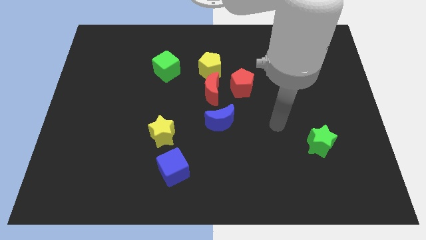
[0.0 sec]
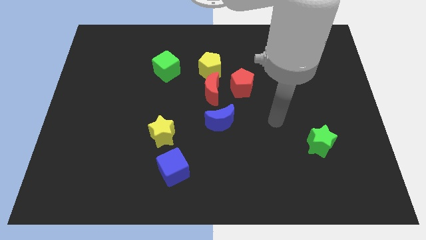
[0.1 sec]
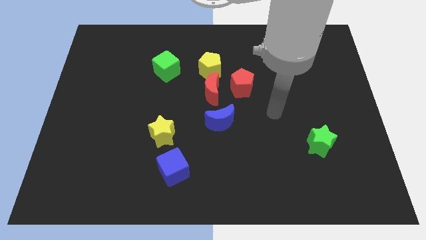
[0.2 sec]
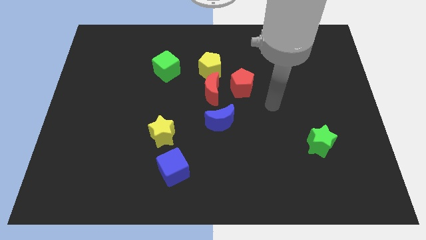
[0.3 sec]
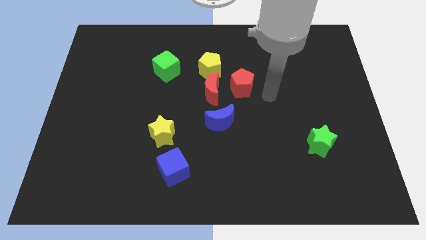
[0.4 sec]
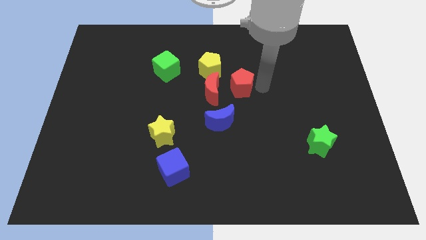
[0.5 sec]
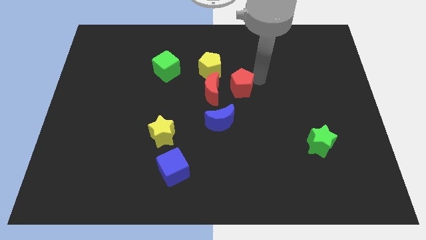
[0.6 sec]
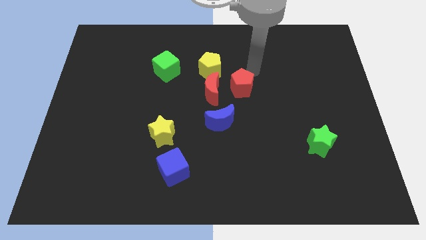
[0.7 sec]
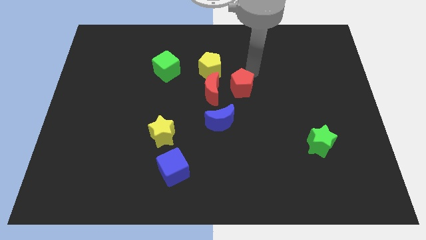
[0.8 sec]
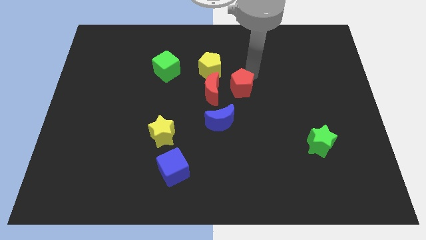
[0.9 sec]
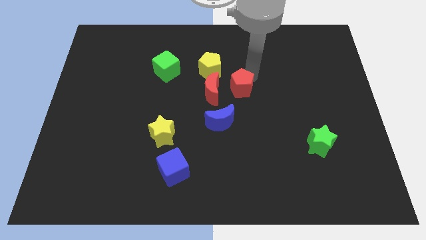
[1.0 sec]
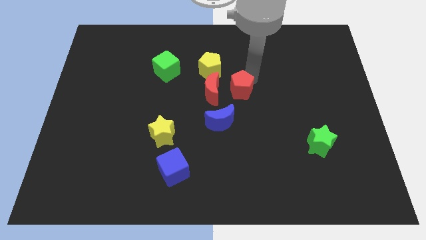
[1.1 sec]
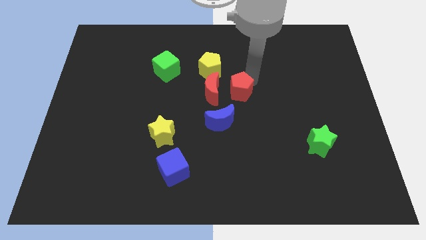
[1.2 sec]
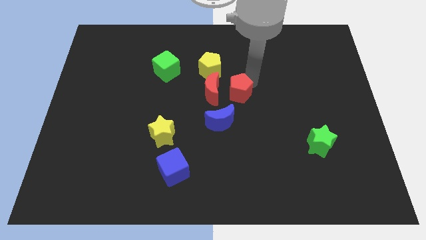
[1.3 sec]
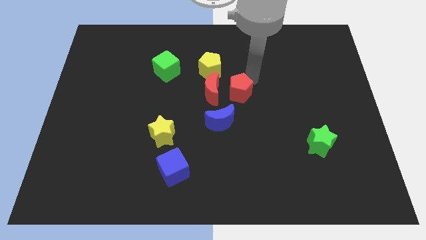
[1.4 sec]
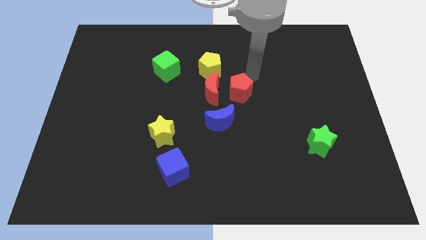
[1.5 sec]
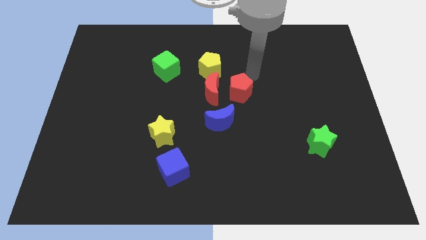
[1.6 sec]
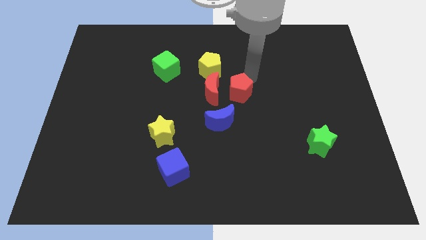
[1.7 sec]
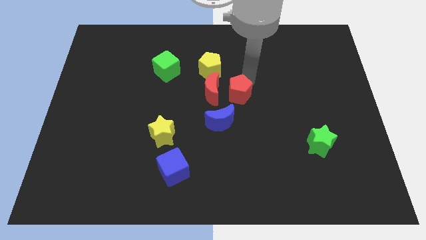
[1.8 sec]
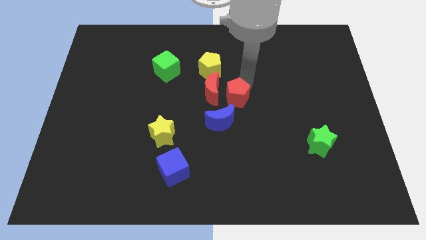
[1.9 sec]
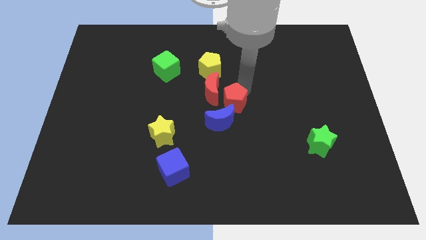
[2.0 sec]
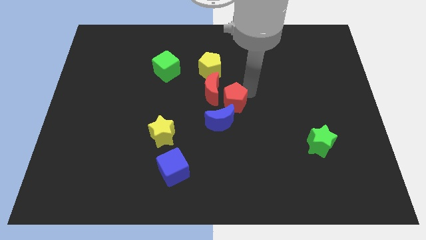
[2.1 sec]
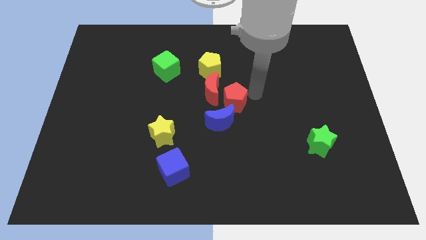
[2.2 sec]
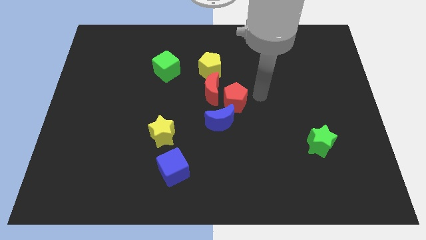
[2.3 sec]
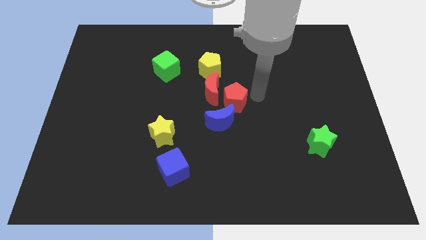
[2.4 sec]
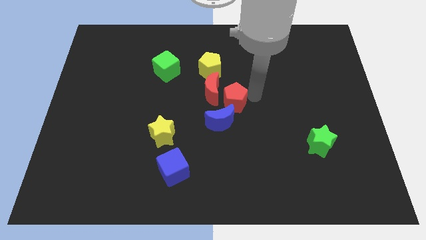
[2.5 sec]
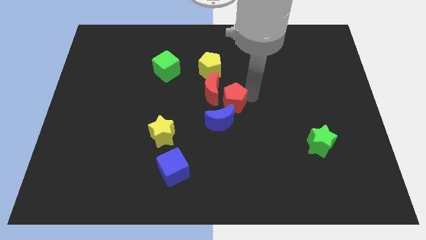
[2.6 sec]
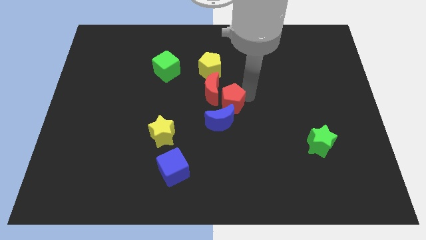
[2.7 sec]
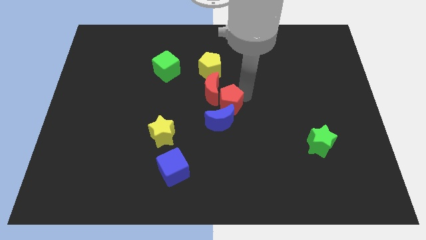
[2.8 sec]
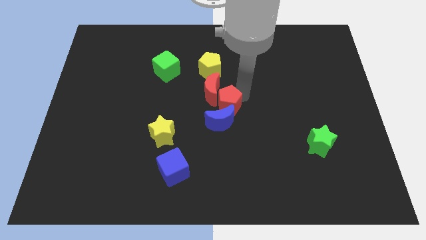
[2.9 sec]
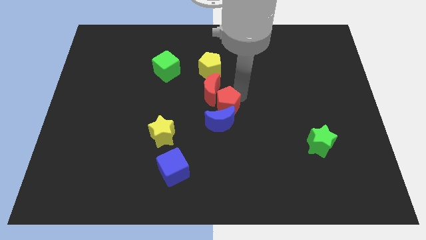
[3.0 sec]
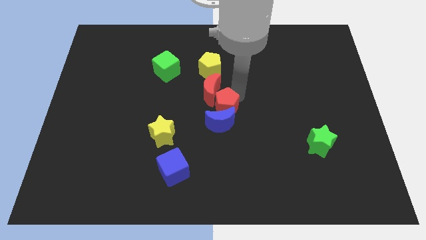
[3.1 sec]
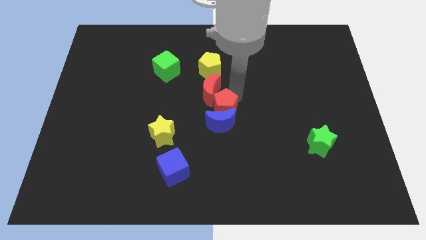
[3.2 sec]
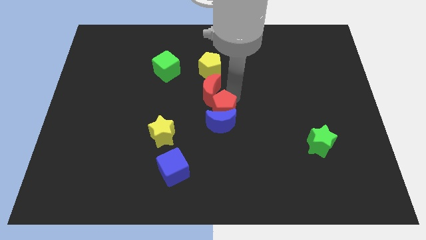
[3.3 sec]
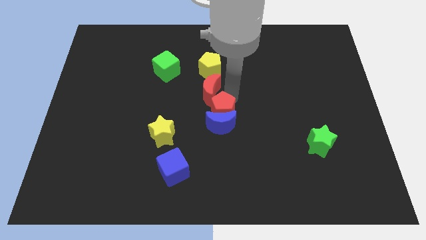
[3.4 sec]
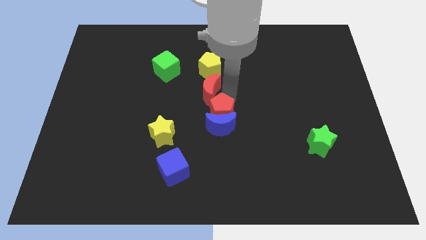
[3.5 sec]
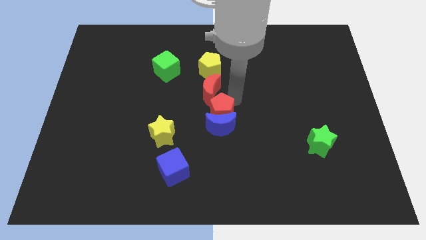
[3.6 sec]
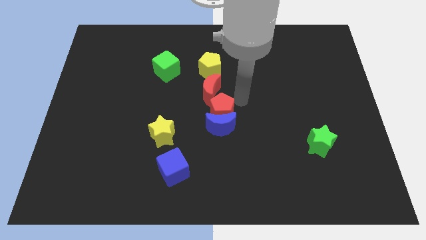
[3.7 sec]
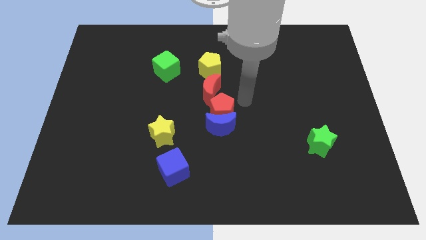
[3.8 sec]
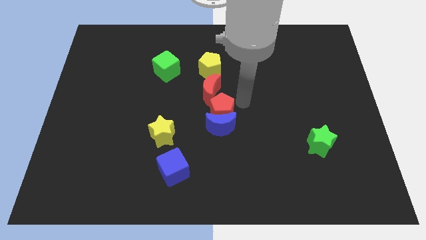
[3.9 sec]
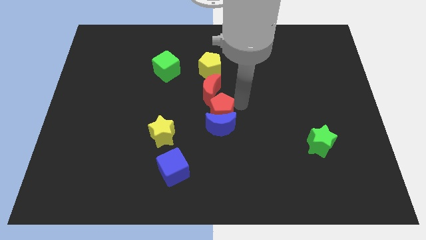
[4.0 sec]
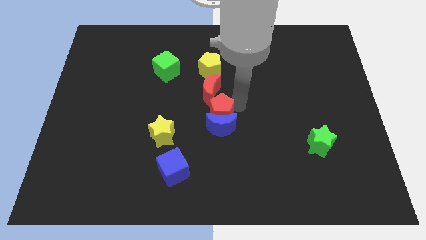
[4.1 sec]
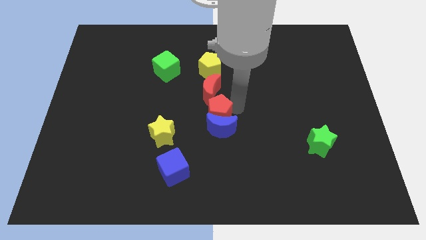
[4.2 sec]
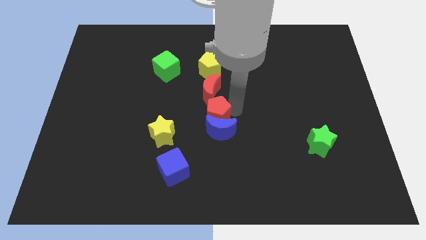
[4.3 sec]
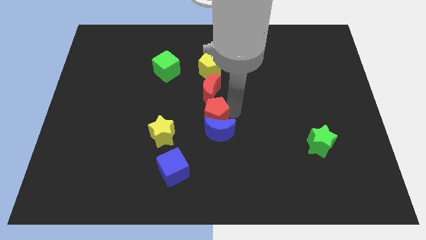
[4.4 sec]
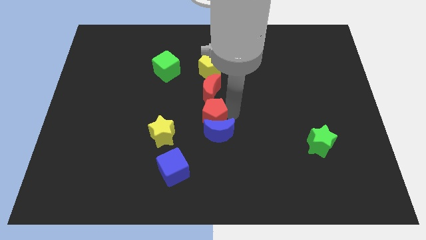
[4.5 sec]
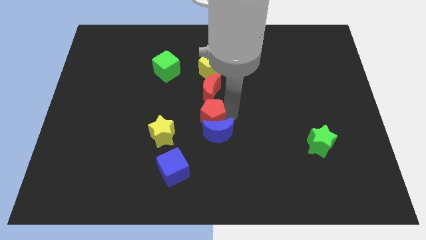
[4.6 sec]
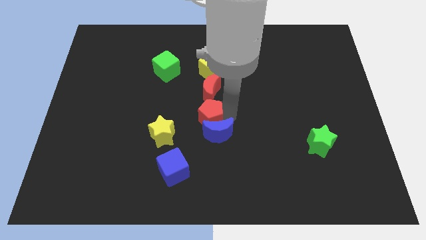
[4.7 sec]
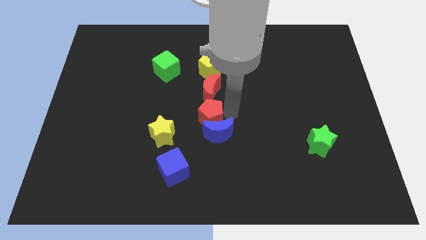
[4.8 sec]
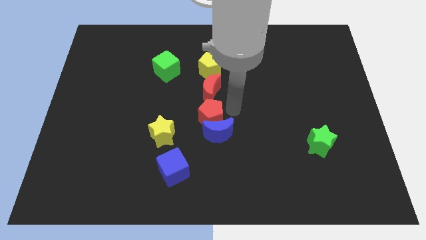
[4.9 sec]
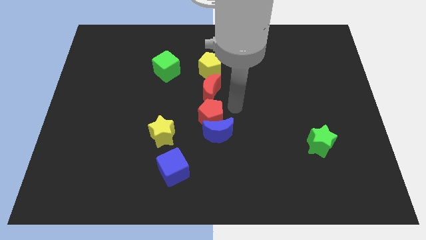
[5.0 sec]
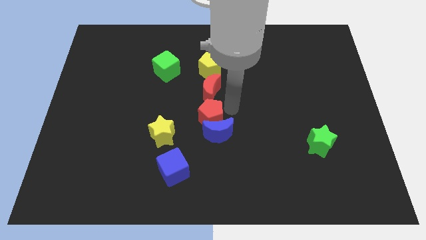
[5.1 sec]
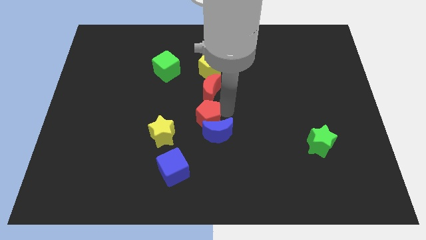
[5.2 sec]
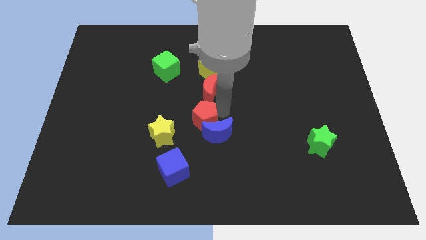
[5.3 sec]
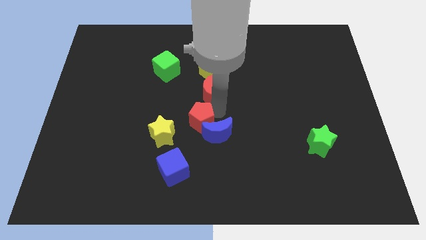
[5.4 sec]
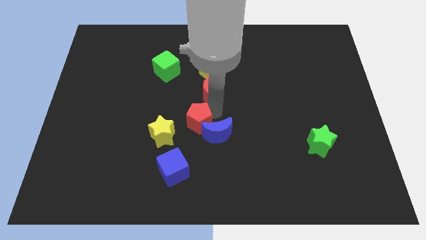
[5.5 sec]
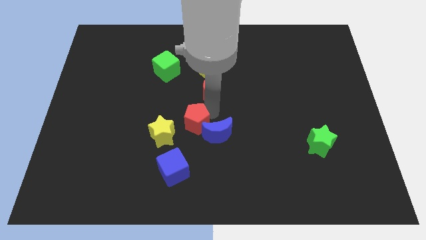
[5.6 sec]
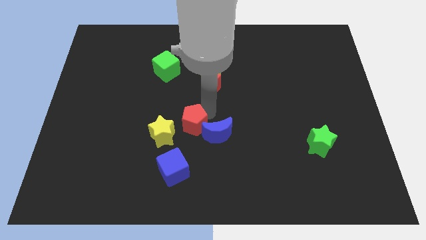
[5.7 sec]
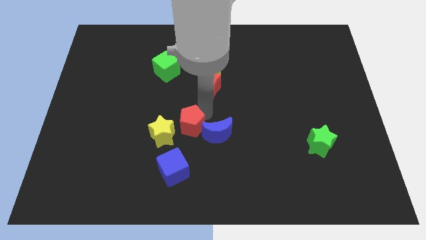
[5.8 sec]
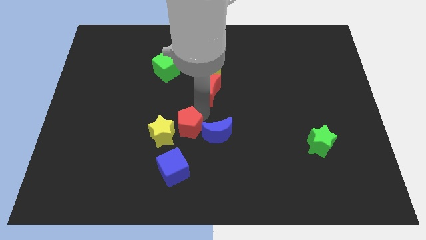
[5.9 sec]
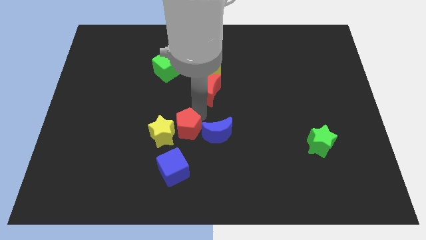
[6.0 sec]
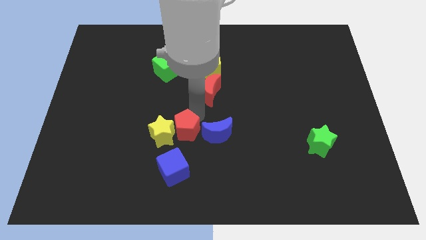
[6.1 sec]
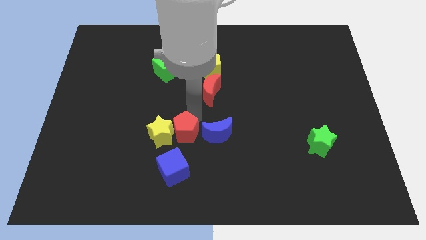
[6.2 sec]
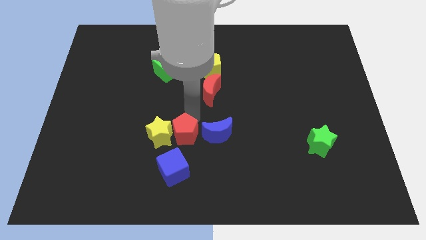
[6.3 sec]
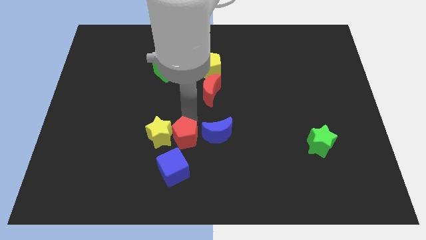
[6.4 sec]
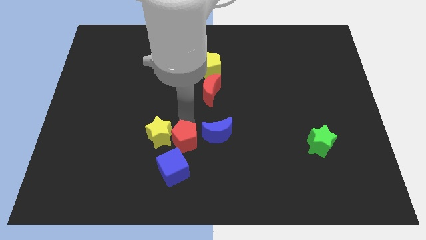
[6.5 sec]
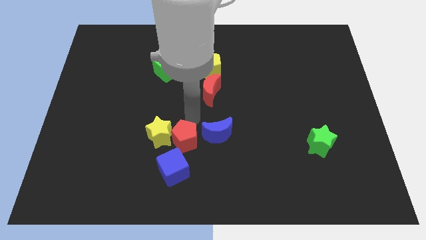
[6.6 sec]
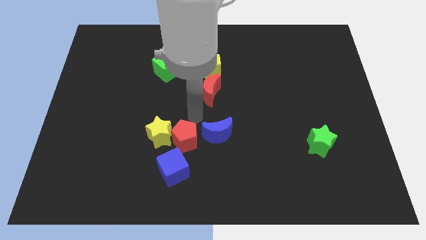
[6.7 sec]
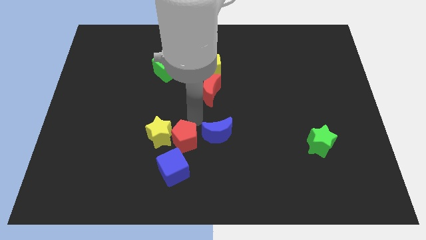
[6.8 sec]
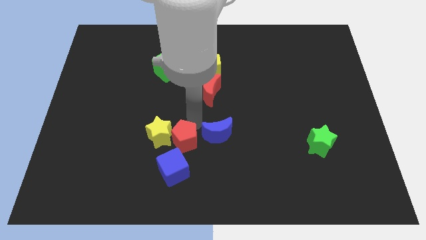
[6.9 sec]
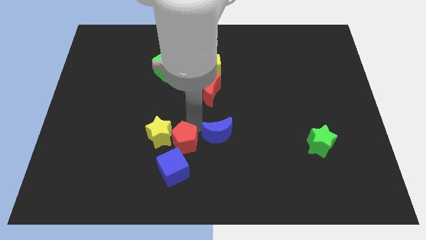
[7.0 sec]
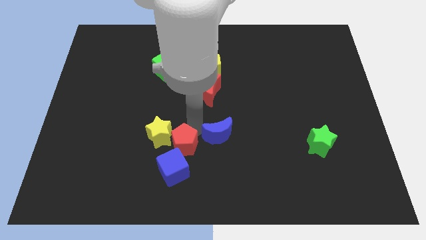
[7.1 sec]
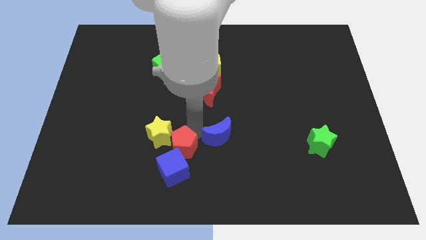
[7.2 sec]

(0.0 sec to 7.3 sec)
push the red pentagon to the blue cube

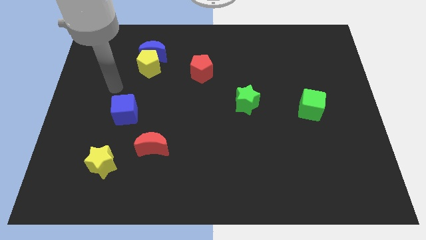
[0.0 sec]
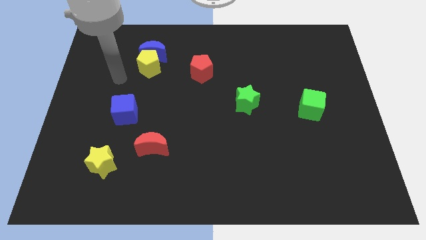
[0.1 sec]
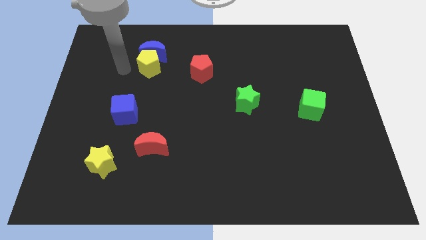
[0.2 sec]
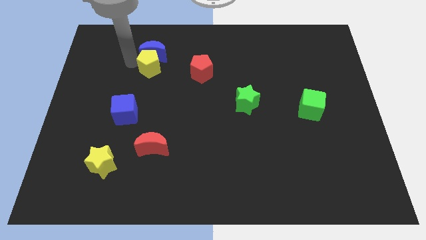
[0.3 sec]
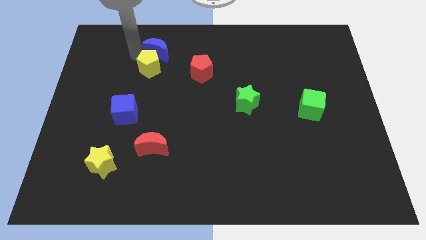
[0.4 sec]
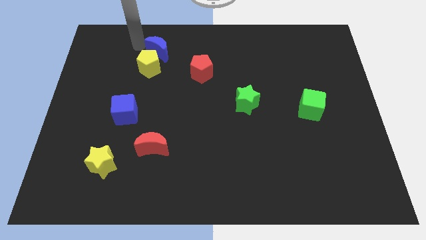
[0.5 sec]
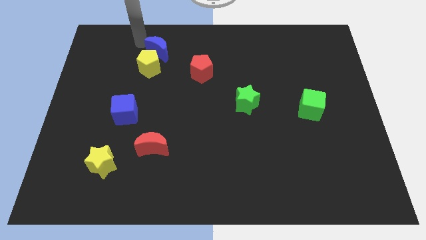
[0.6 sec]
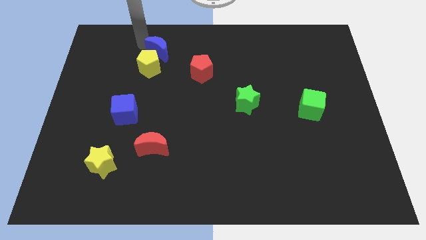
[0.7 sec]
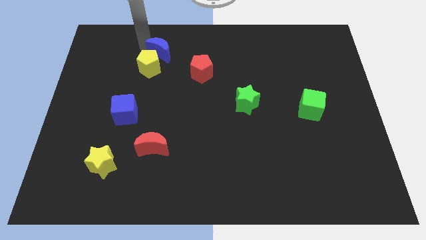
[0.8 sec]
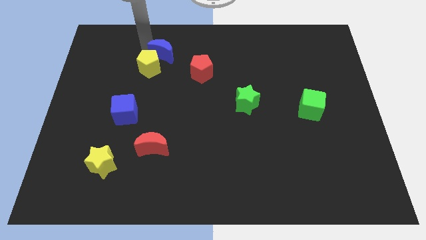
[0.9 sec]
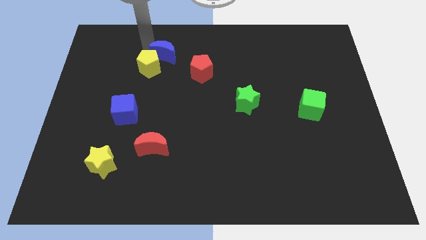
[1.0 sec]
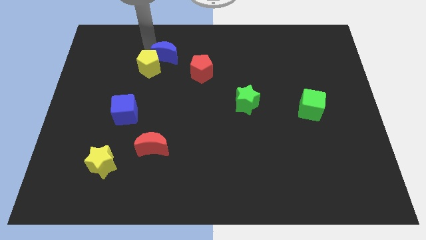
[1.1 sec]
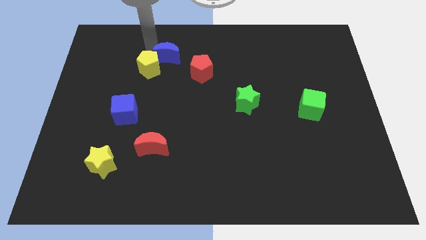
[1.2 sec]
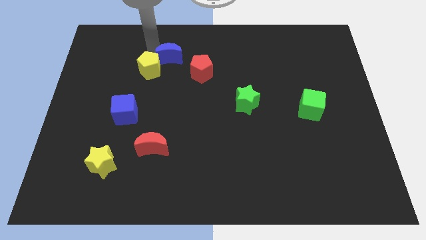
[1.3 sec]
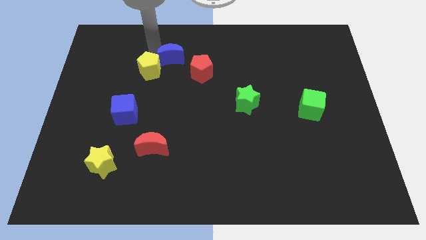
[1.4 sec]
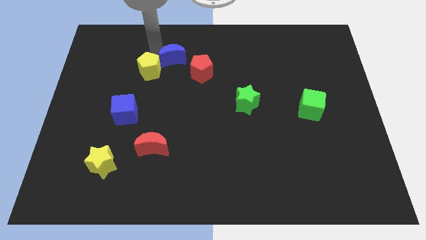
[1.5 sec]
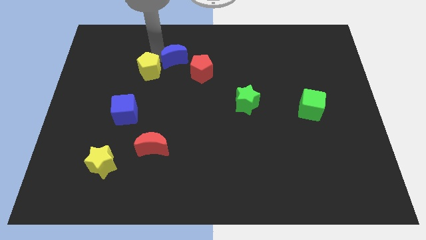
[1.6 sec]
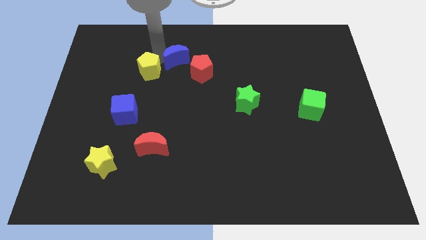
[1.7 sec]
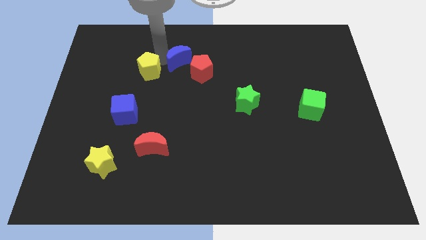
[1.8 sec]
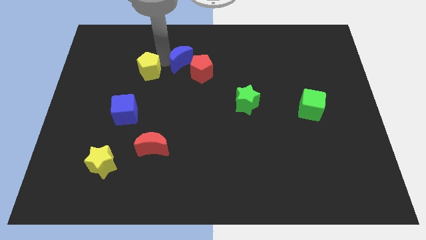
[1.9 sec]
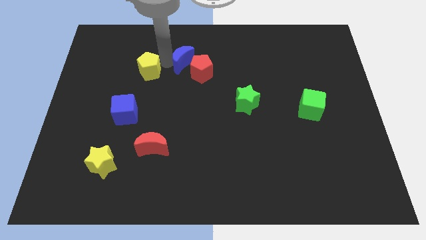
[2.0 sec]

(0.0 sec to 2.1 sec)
put the blue moon close to the red pentagon
